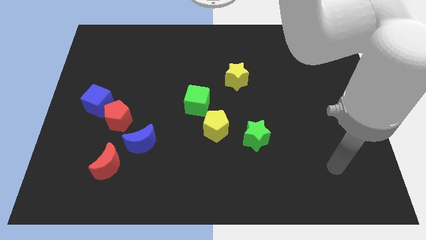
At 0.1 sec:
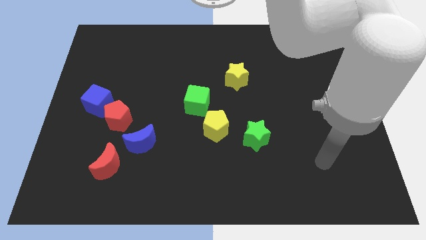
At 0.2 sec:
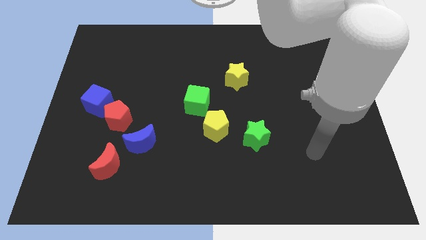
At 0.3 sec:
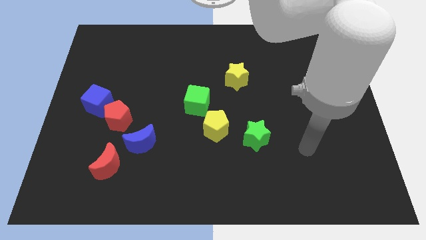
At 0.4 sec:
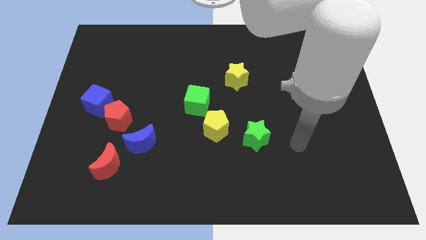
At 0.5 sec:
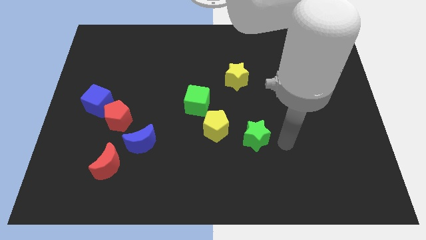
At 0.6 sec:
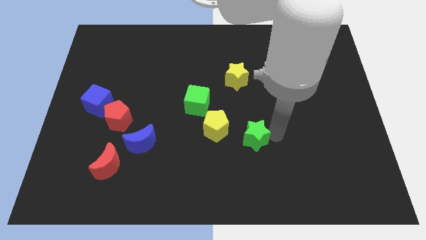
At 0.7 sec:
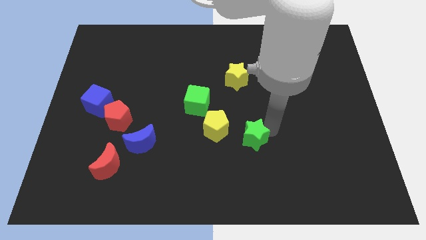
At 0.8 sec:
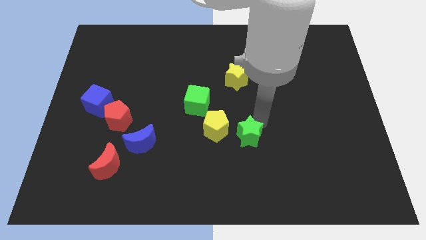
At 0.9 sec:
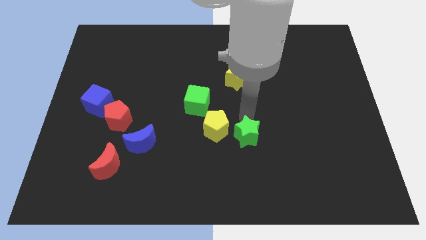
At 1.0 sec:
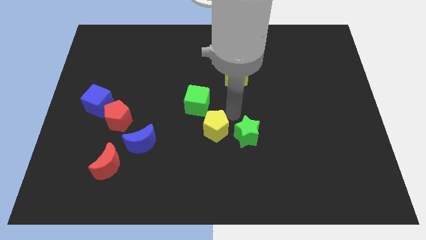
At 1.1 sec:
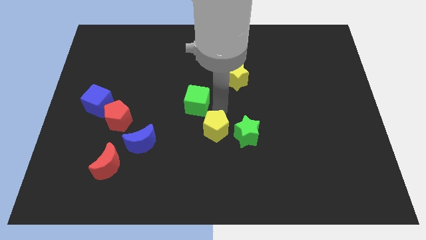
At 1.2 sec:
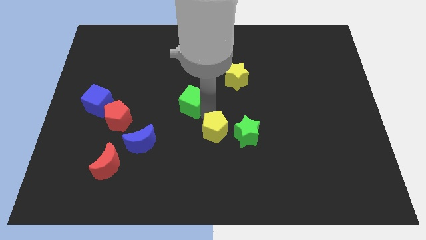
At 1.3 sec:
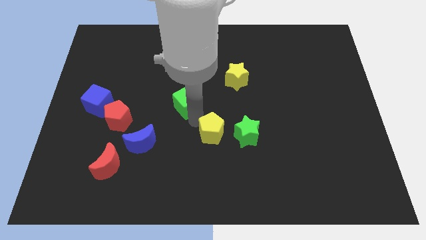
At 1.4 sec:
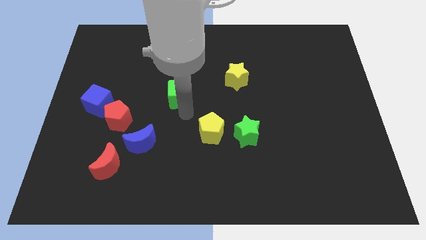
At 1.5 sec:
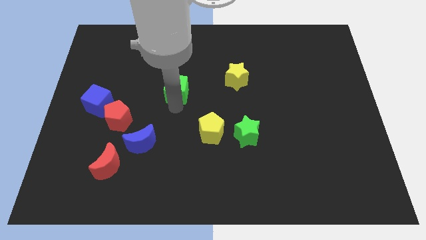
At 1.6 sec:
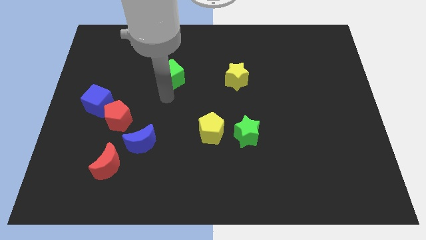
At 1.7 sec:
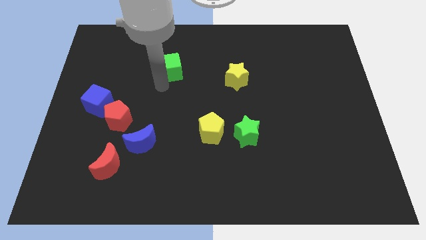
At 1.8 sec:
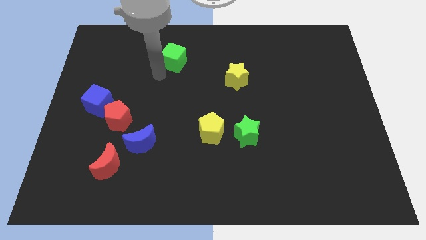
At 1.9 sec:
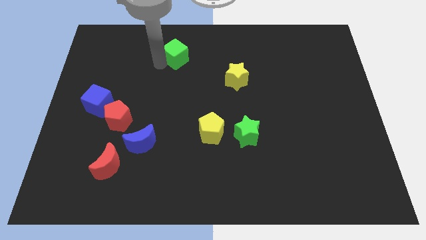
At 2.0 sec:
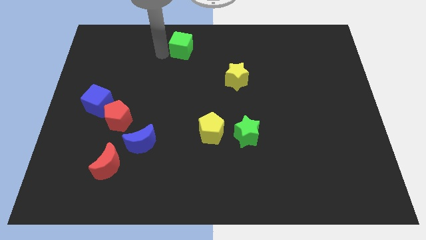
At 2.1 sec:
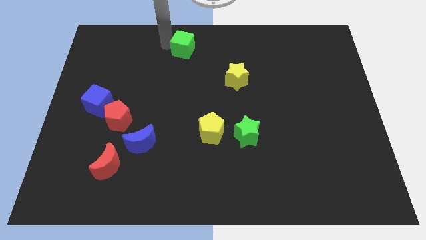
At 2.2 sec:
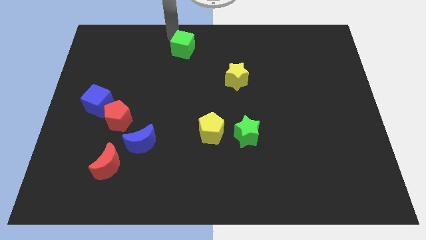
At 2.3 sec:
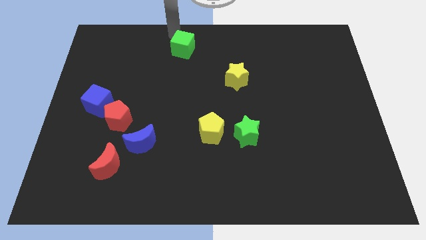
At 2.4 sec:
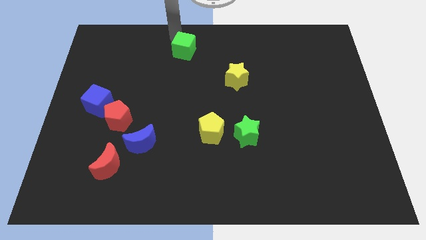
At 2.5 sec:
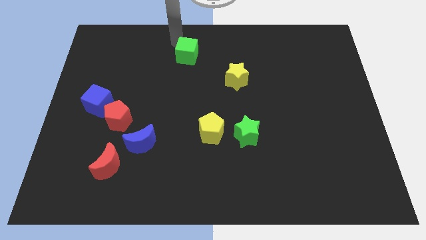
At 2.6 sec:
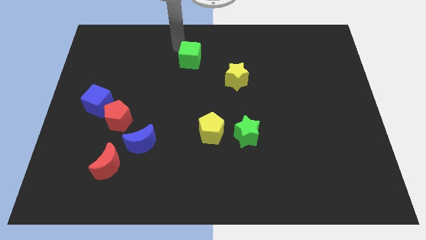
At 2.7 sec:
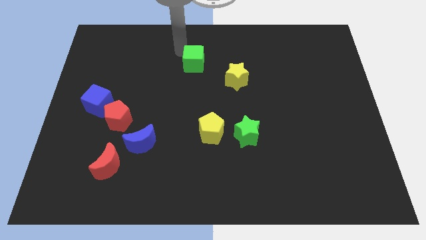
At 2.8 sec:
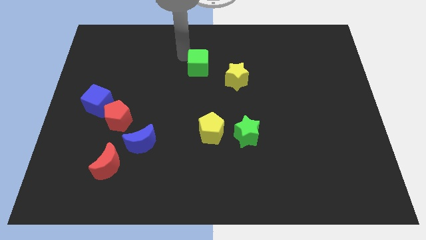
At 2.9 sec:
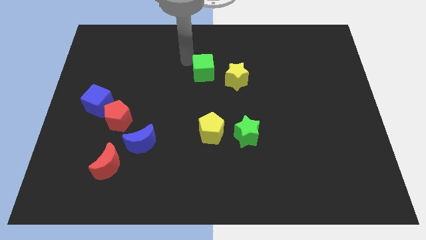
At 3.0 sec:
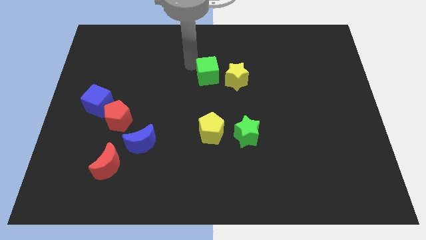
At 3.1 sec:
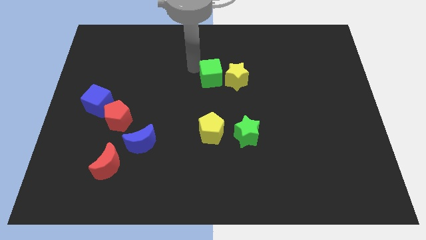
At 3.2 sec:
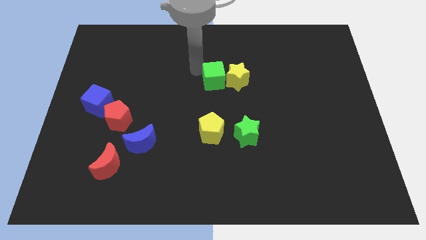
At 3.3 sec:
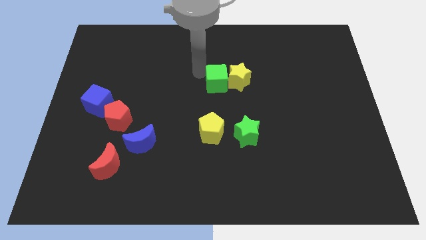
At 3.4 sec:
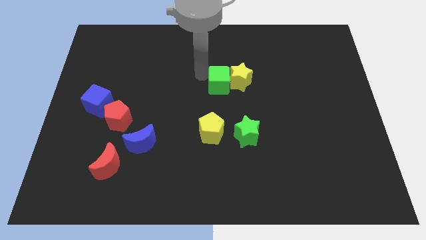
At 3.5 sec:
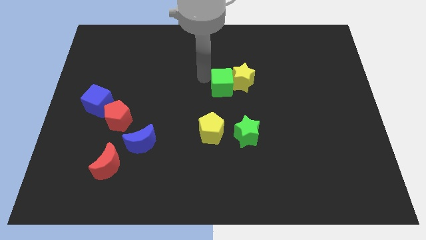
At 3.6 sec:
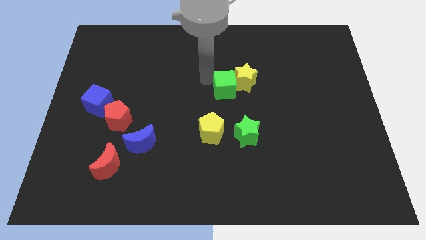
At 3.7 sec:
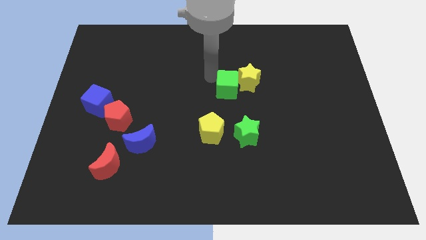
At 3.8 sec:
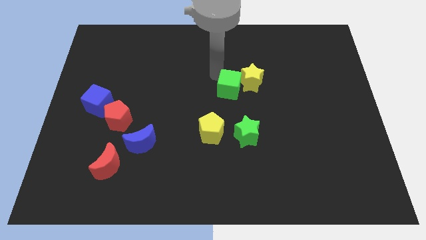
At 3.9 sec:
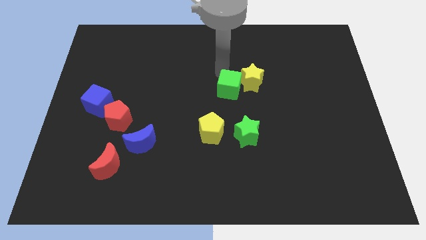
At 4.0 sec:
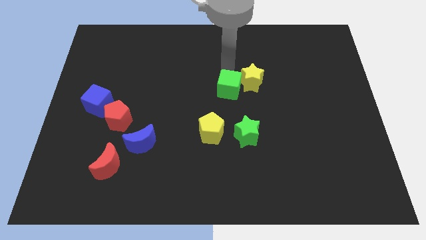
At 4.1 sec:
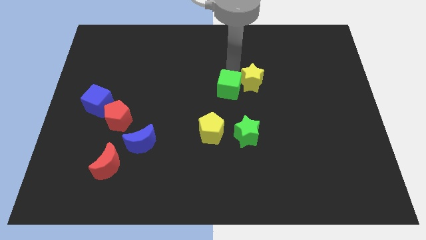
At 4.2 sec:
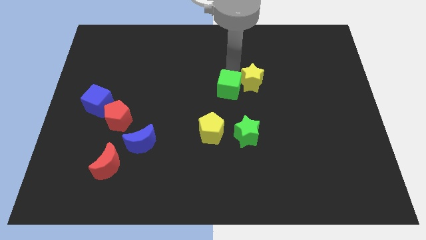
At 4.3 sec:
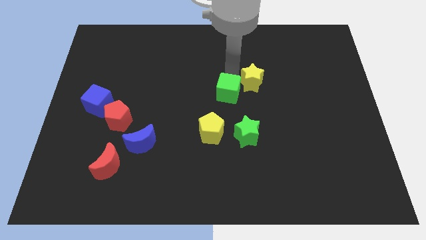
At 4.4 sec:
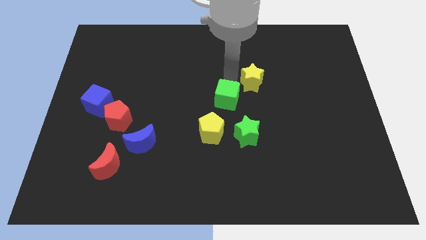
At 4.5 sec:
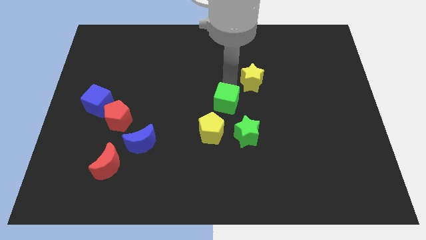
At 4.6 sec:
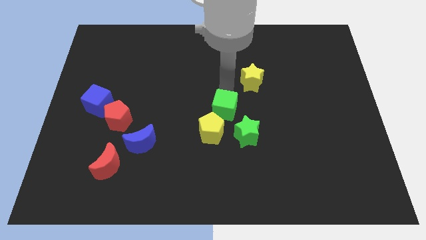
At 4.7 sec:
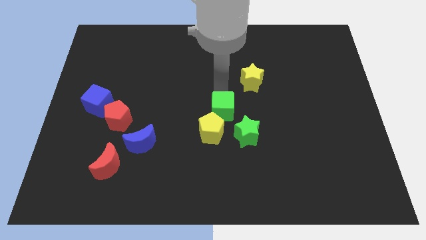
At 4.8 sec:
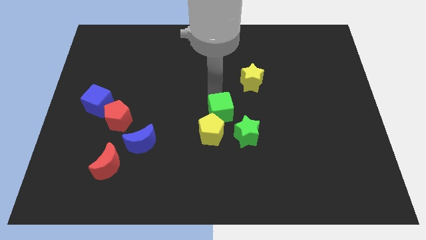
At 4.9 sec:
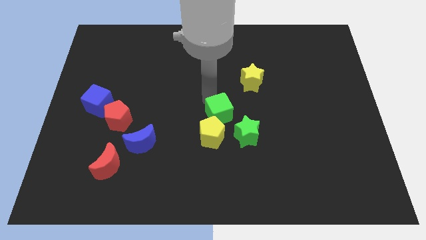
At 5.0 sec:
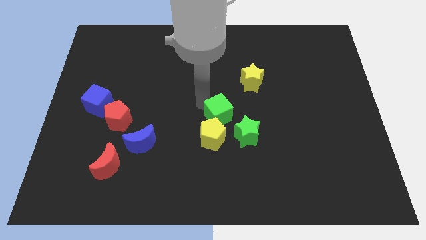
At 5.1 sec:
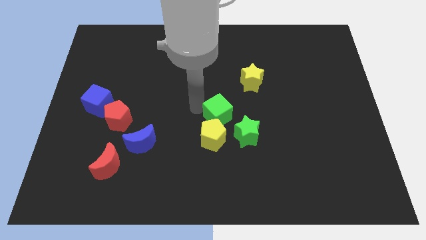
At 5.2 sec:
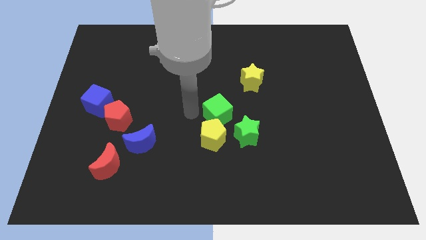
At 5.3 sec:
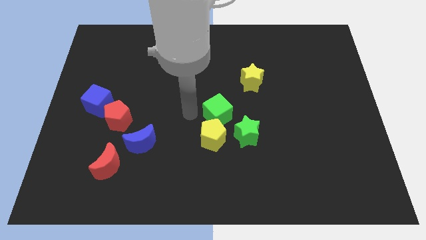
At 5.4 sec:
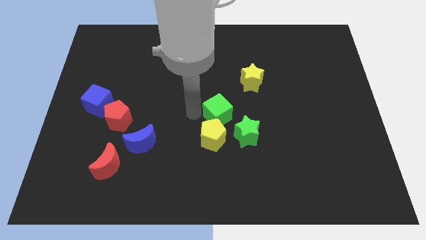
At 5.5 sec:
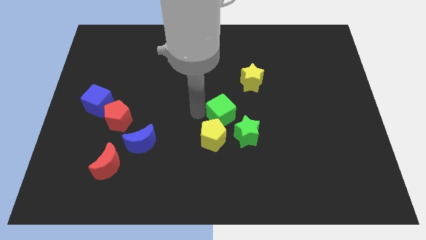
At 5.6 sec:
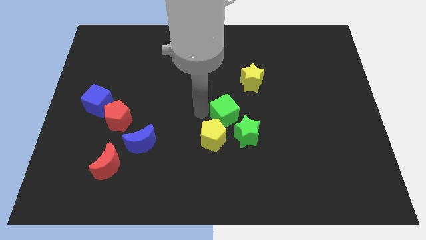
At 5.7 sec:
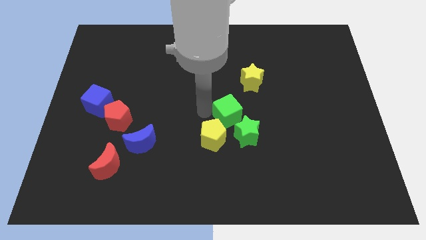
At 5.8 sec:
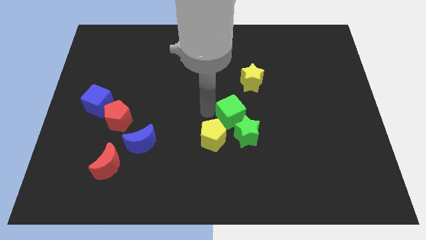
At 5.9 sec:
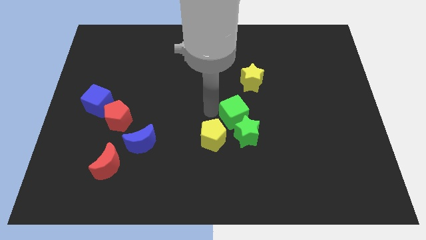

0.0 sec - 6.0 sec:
move the green cube below the yellow star
